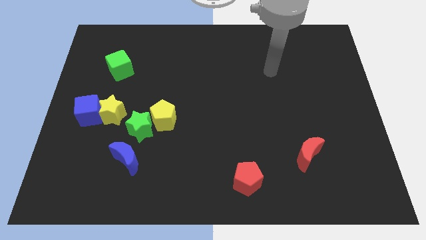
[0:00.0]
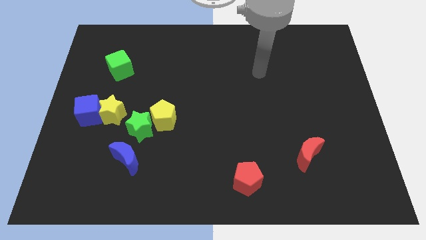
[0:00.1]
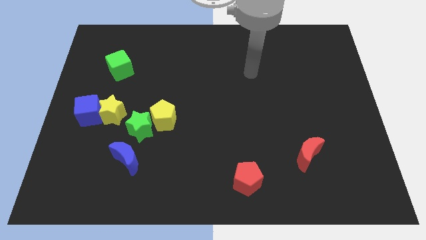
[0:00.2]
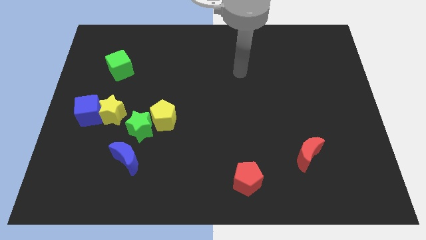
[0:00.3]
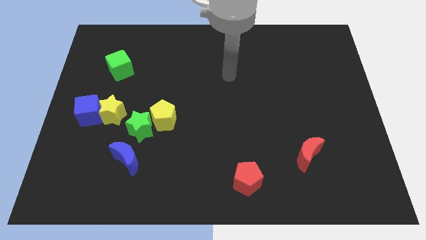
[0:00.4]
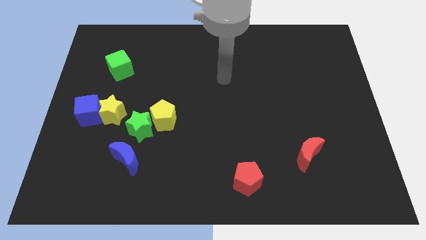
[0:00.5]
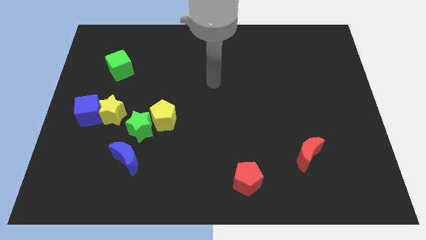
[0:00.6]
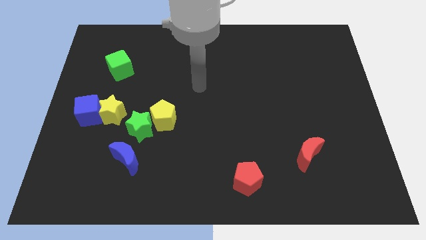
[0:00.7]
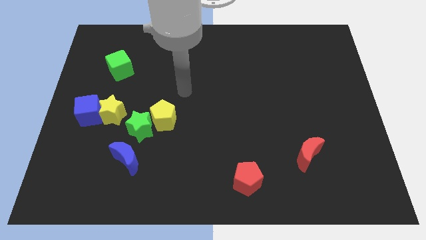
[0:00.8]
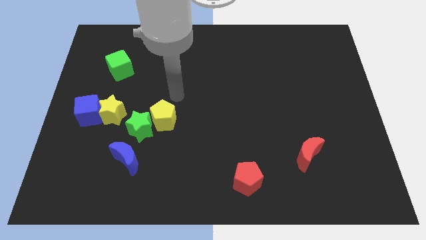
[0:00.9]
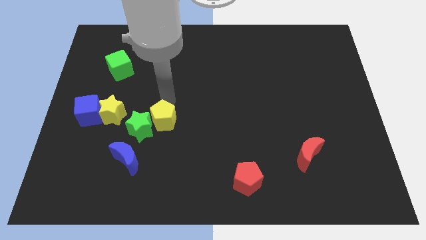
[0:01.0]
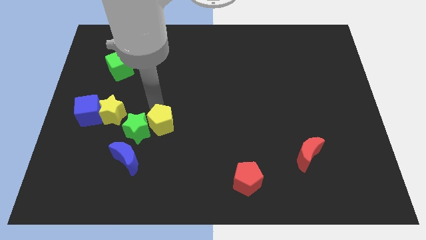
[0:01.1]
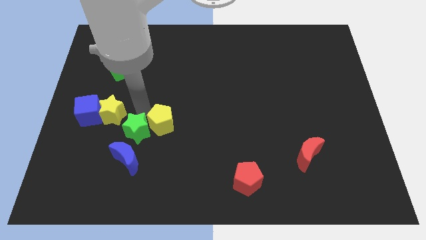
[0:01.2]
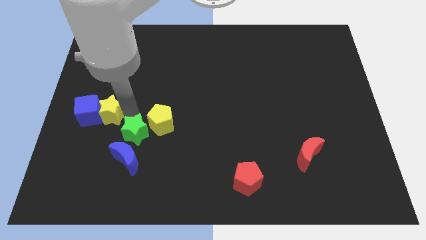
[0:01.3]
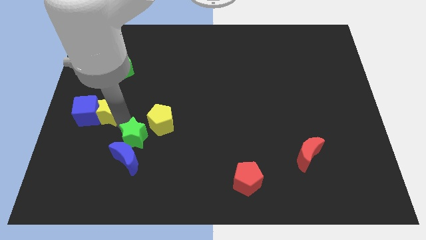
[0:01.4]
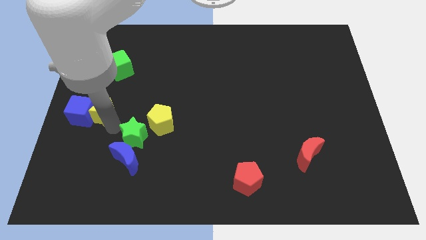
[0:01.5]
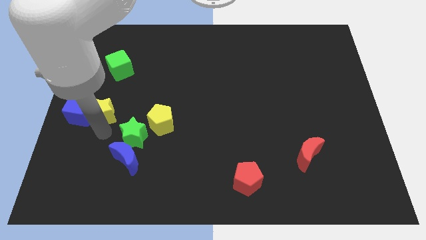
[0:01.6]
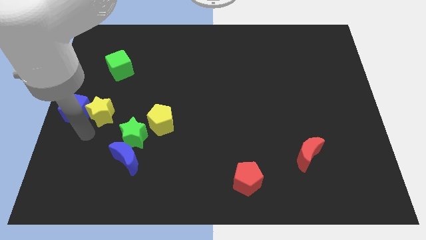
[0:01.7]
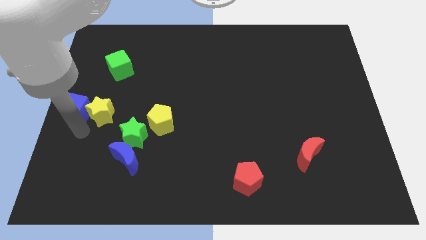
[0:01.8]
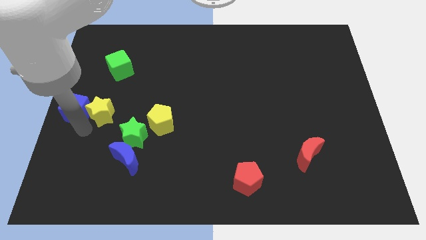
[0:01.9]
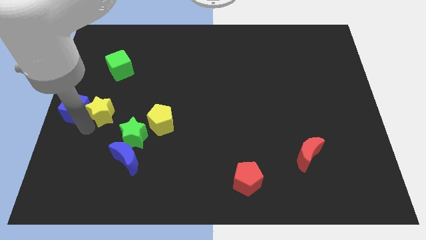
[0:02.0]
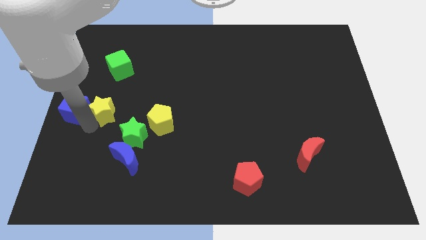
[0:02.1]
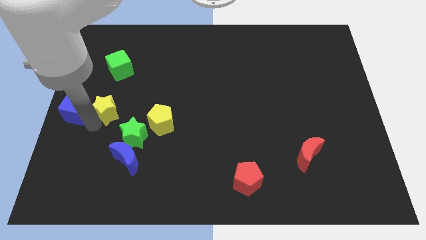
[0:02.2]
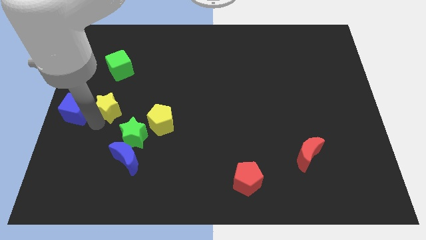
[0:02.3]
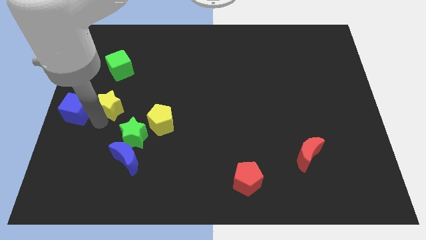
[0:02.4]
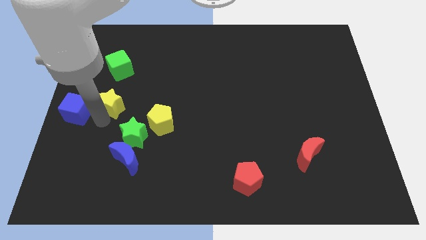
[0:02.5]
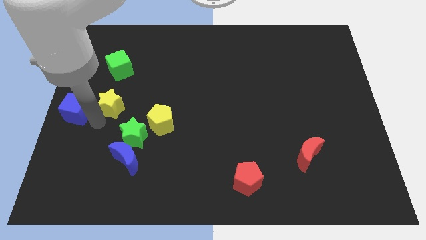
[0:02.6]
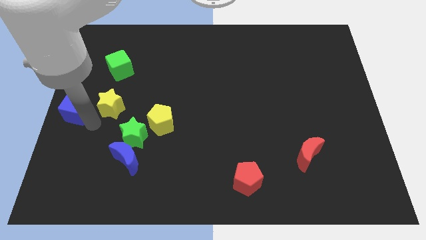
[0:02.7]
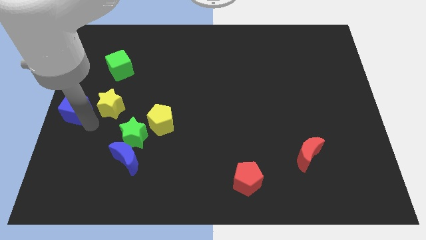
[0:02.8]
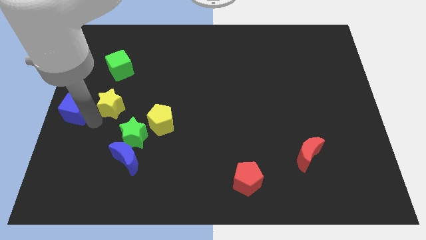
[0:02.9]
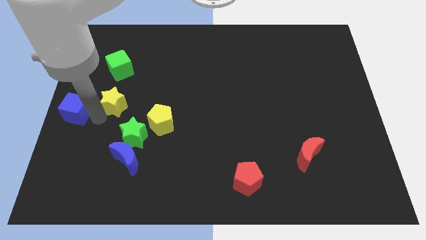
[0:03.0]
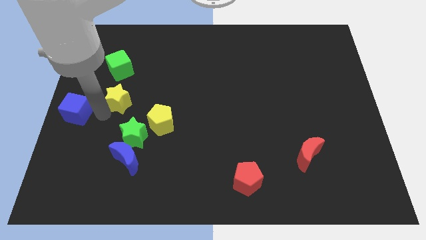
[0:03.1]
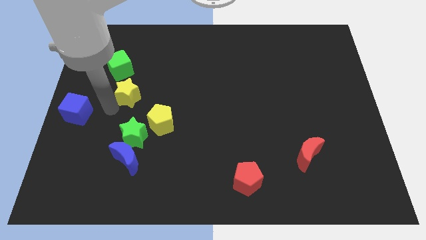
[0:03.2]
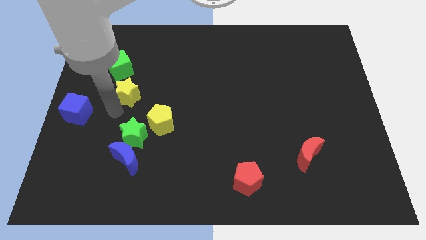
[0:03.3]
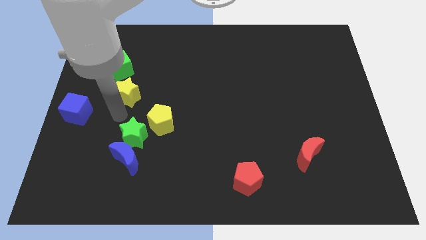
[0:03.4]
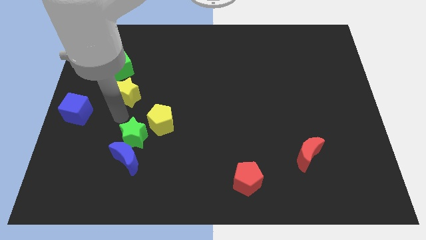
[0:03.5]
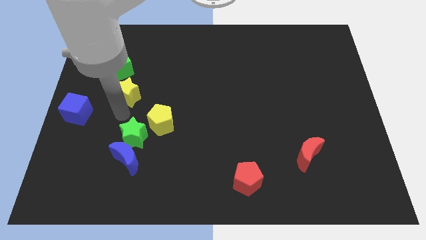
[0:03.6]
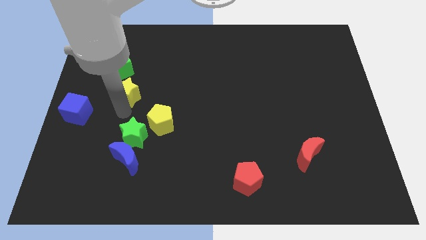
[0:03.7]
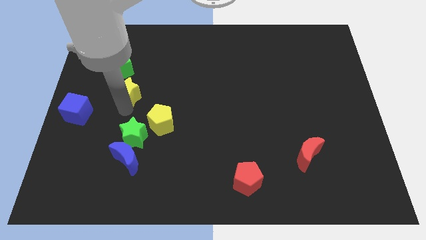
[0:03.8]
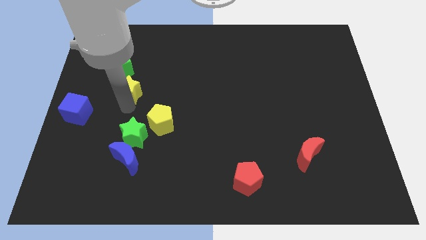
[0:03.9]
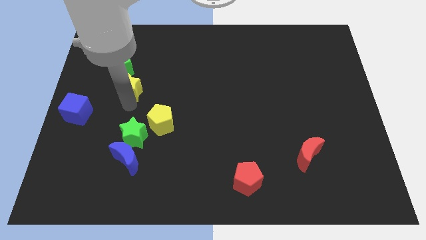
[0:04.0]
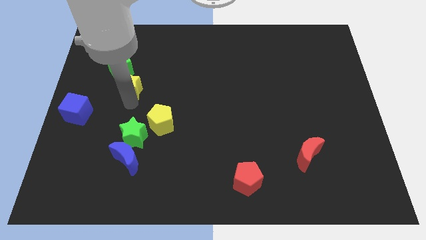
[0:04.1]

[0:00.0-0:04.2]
move the yellow star a bit up

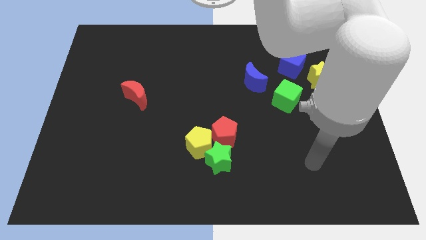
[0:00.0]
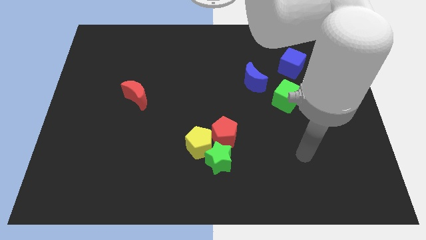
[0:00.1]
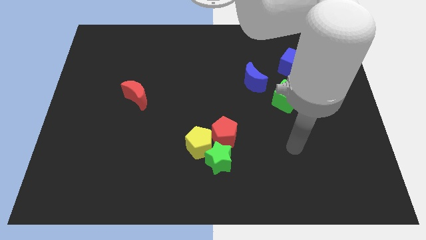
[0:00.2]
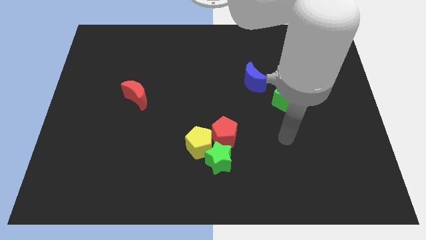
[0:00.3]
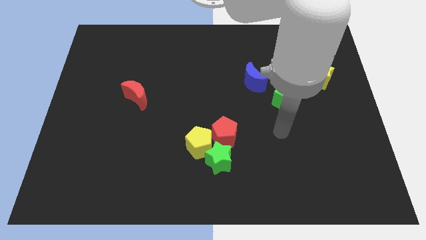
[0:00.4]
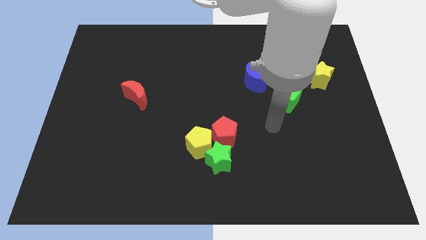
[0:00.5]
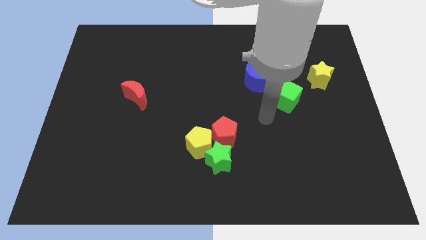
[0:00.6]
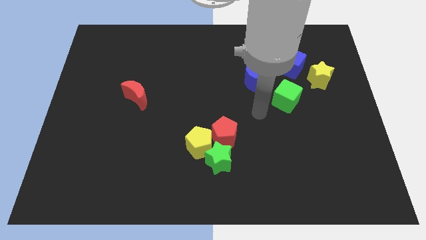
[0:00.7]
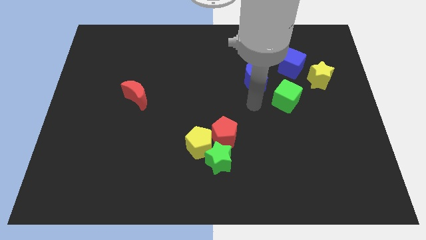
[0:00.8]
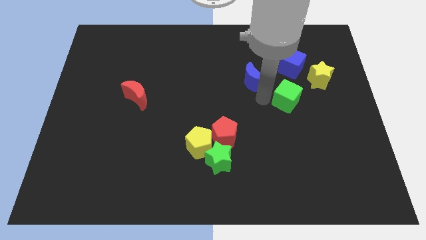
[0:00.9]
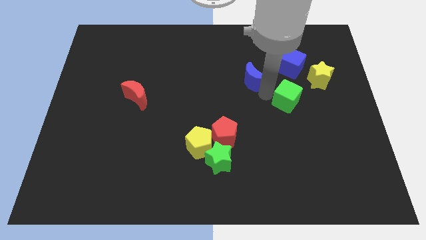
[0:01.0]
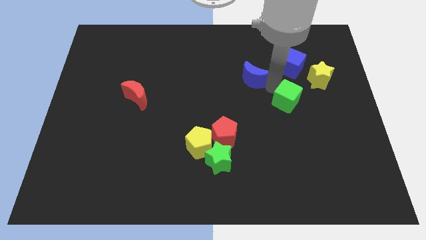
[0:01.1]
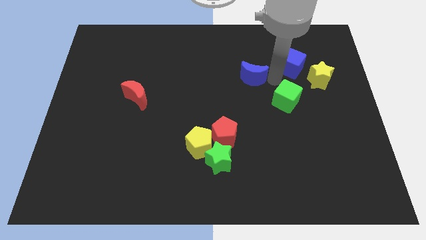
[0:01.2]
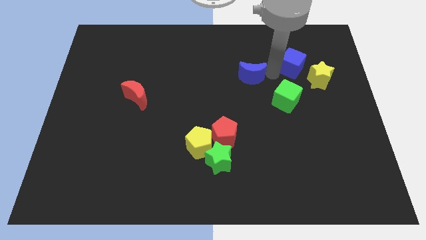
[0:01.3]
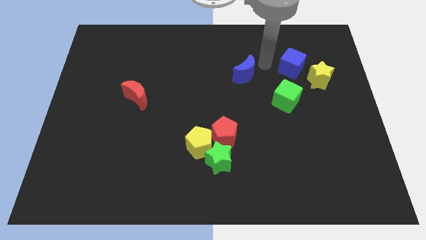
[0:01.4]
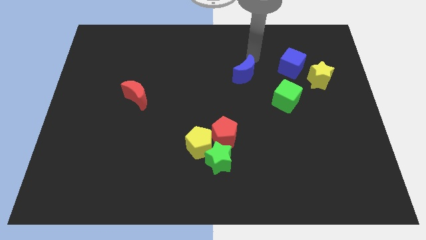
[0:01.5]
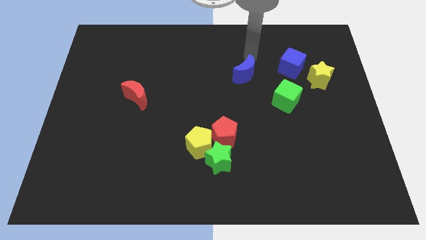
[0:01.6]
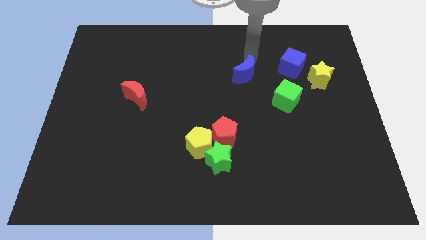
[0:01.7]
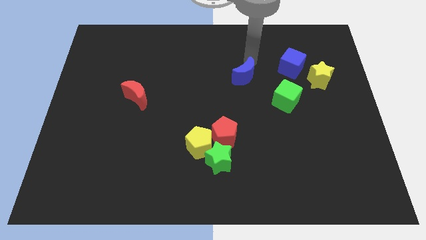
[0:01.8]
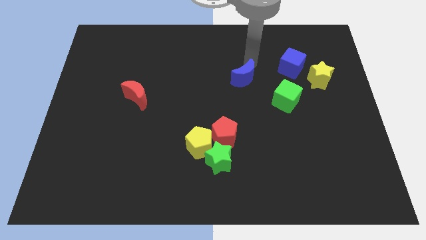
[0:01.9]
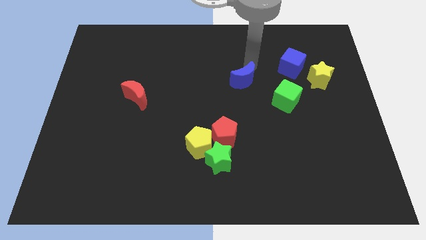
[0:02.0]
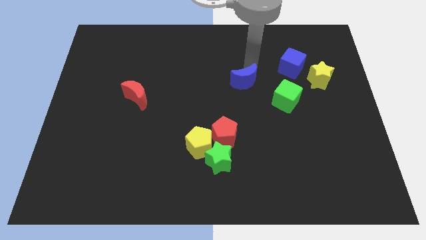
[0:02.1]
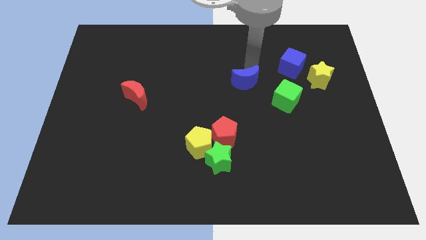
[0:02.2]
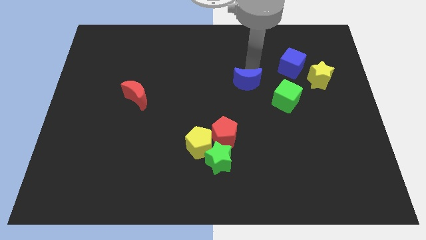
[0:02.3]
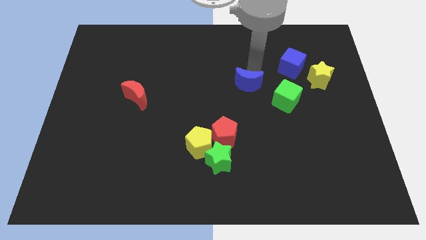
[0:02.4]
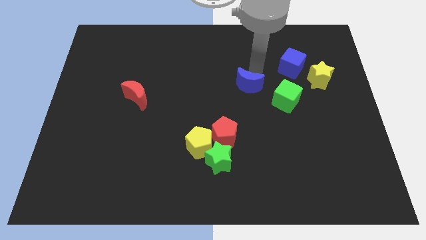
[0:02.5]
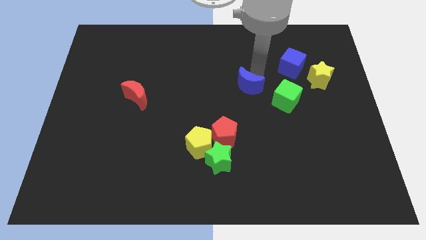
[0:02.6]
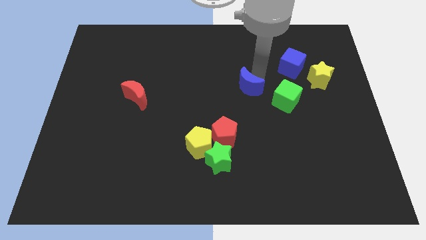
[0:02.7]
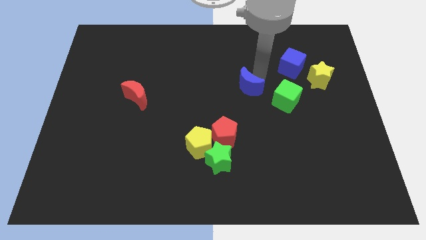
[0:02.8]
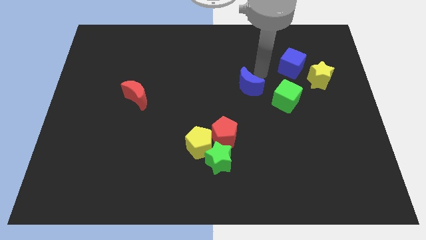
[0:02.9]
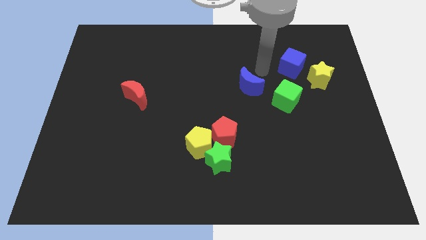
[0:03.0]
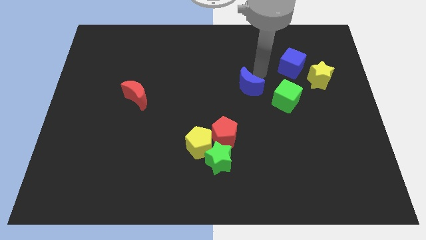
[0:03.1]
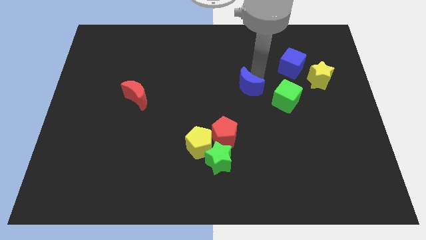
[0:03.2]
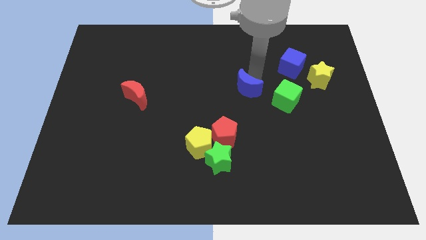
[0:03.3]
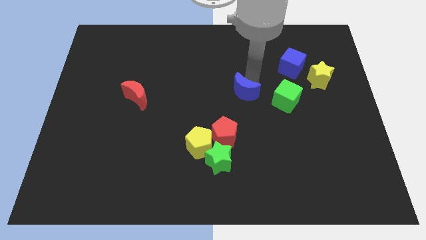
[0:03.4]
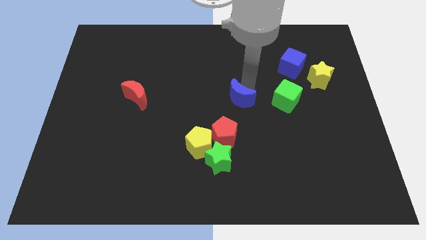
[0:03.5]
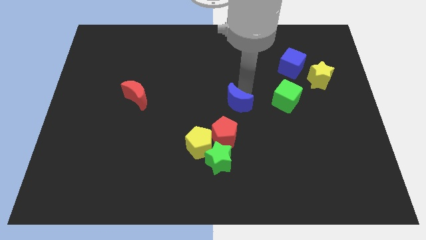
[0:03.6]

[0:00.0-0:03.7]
move the blue moon a little bit diagonally down and to the left
